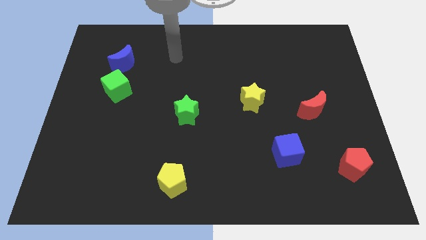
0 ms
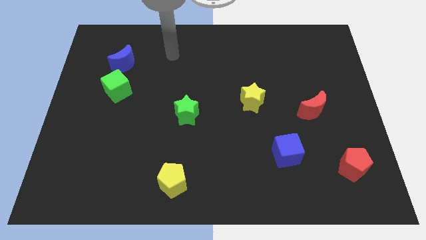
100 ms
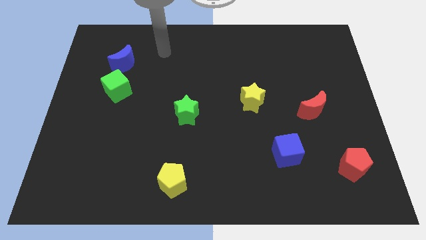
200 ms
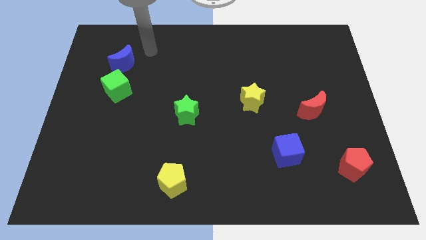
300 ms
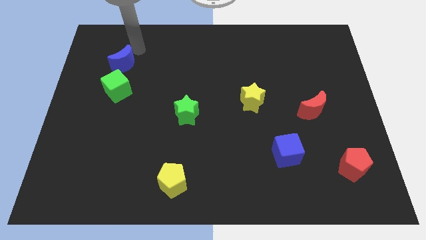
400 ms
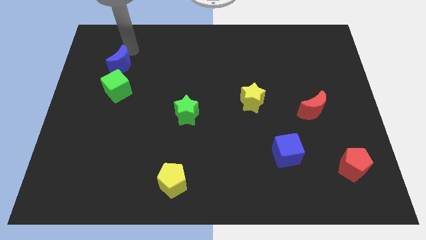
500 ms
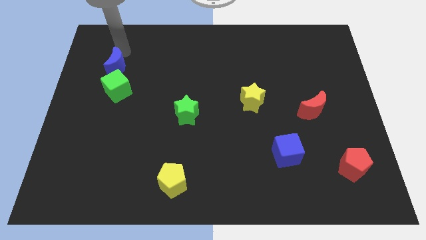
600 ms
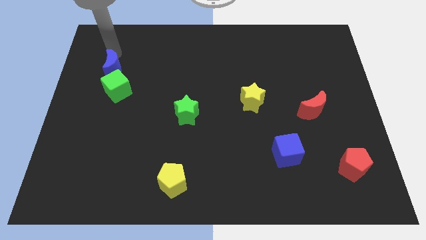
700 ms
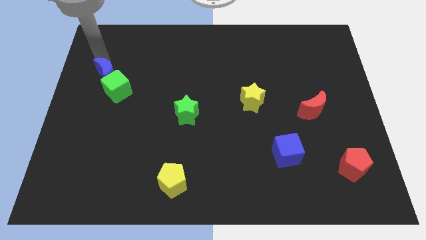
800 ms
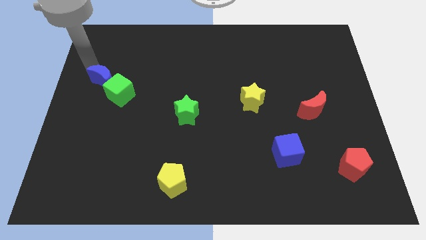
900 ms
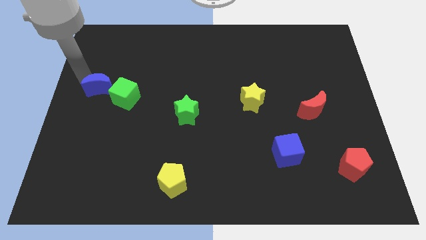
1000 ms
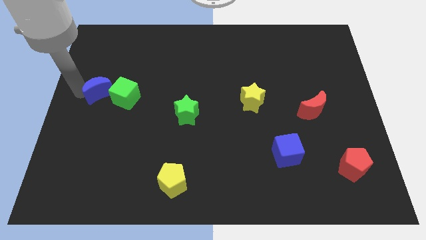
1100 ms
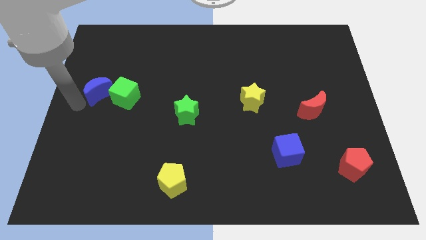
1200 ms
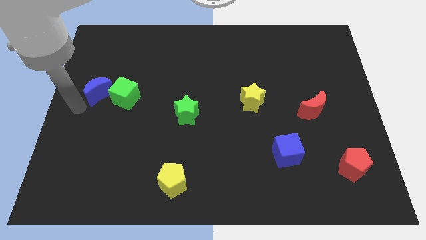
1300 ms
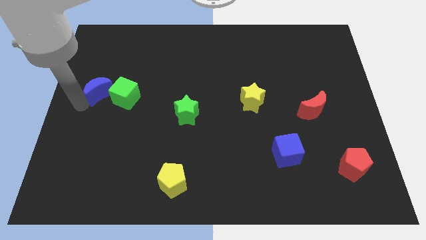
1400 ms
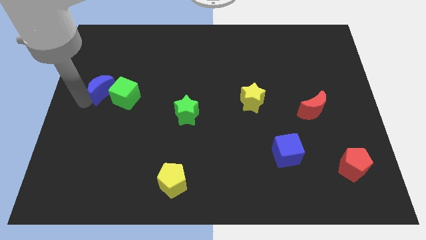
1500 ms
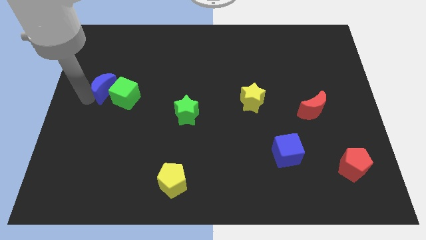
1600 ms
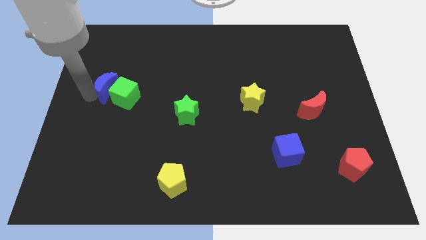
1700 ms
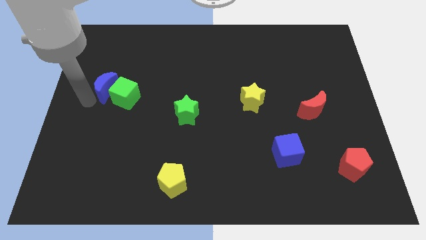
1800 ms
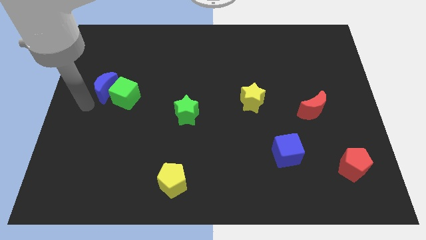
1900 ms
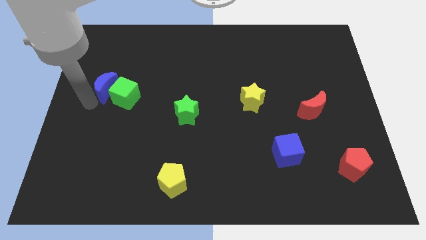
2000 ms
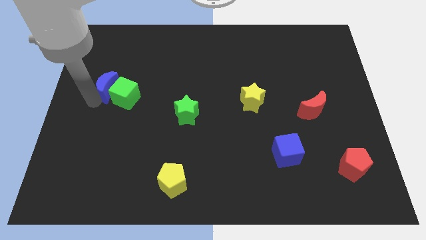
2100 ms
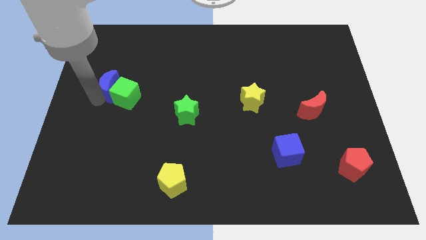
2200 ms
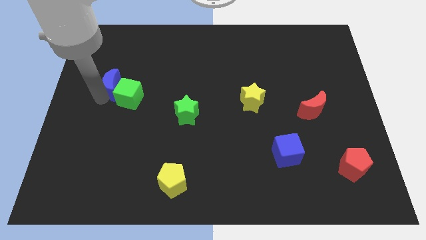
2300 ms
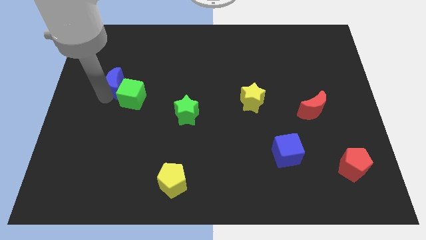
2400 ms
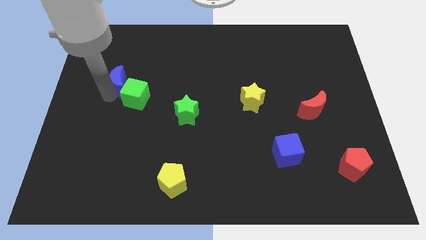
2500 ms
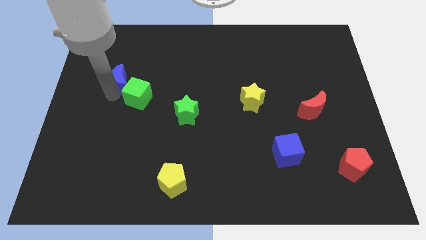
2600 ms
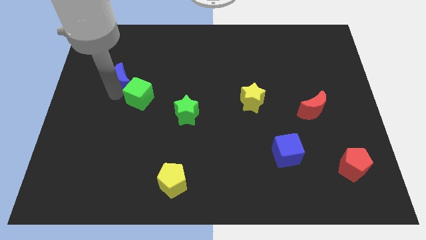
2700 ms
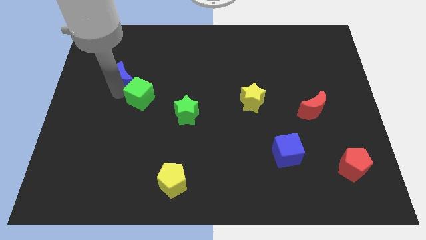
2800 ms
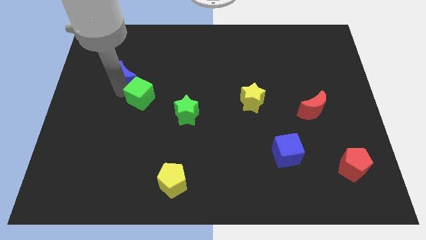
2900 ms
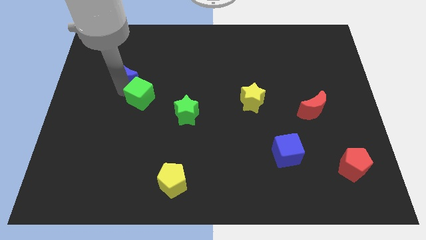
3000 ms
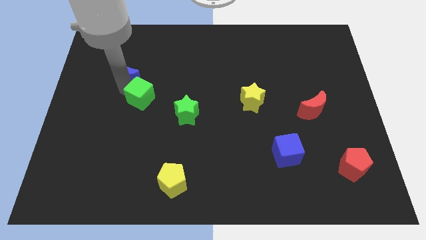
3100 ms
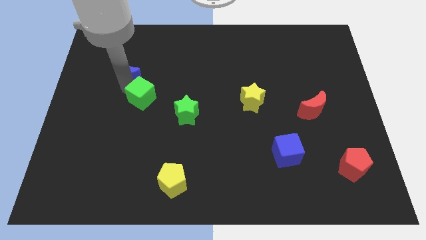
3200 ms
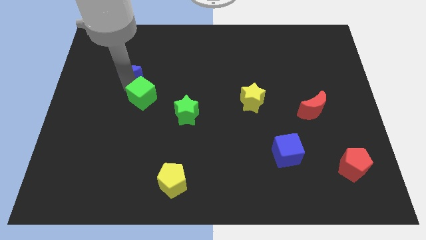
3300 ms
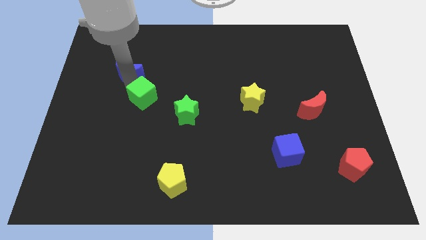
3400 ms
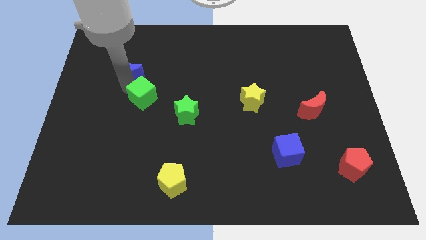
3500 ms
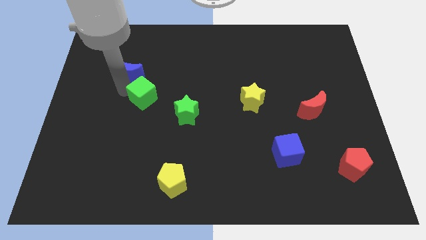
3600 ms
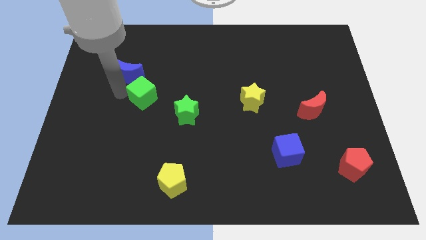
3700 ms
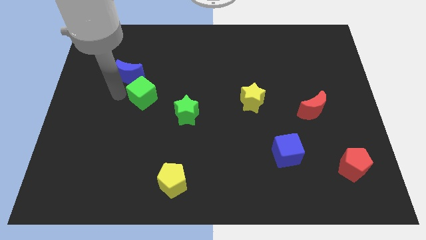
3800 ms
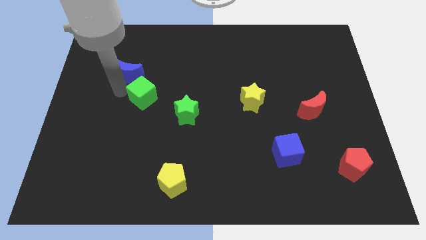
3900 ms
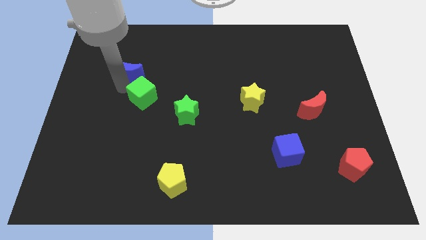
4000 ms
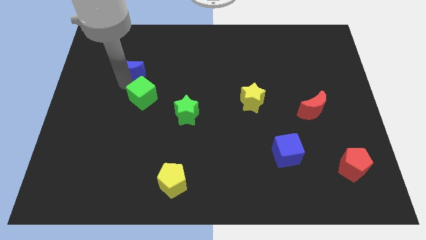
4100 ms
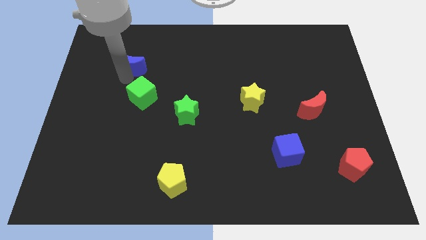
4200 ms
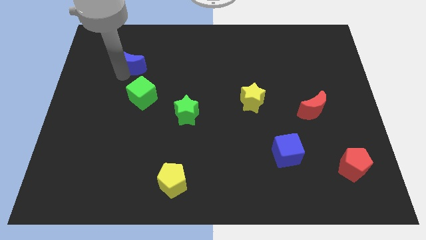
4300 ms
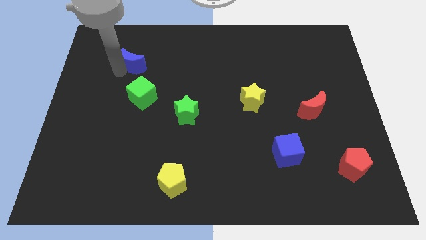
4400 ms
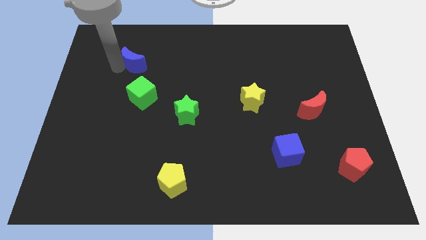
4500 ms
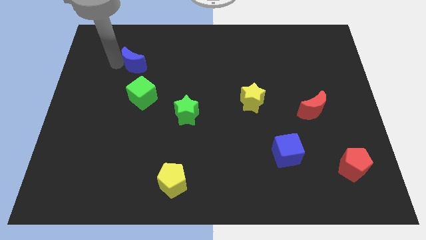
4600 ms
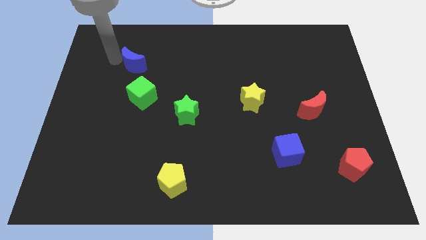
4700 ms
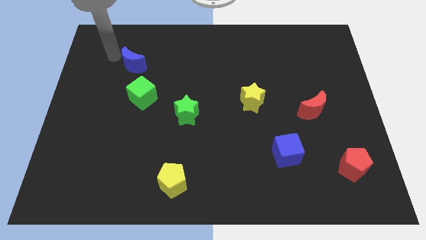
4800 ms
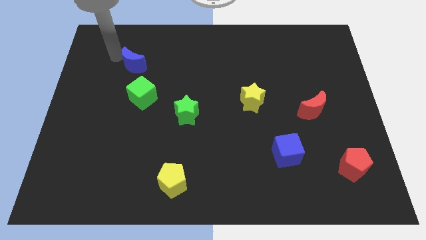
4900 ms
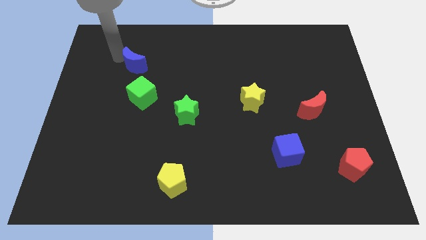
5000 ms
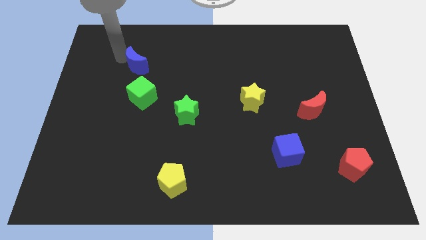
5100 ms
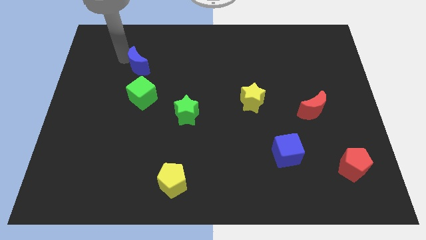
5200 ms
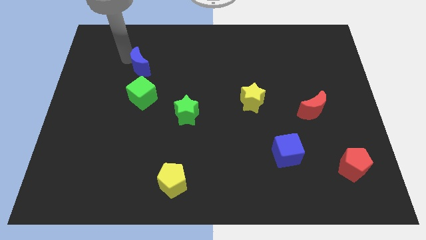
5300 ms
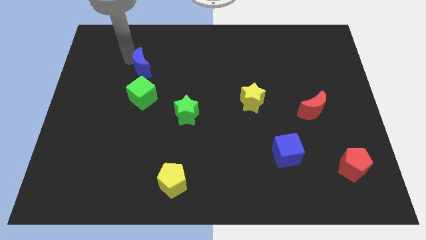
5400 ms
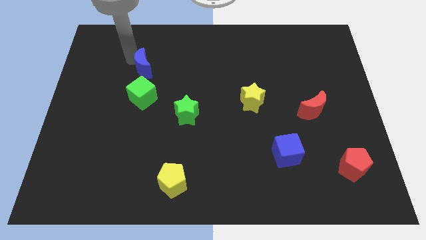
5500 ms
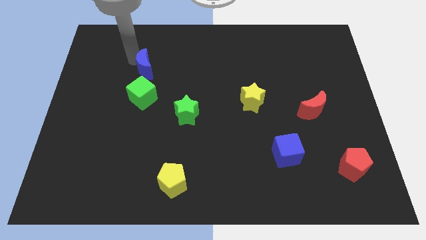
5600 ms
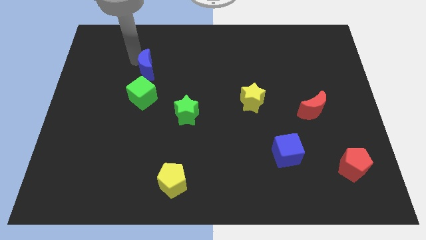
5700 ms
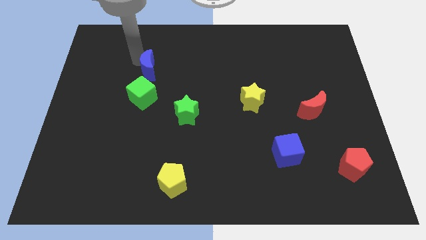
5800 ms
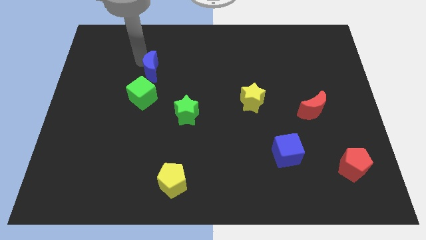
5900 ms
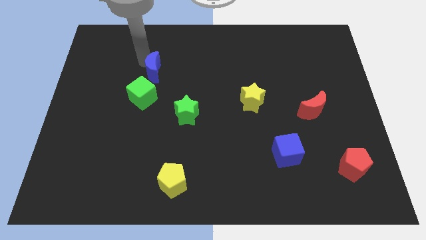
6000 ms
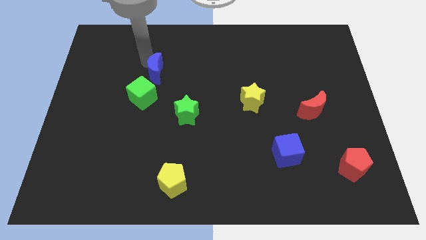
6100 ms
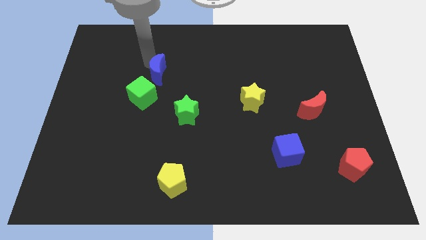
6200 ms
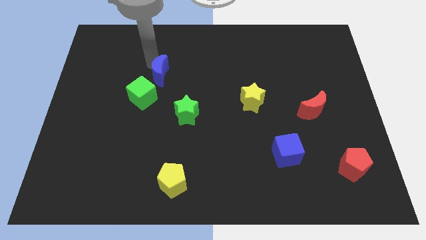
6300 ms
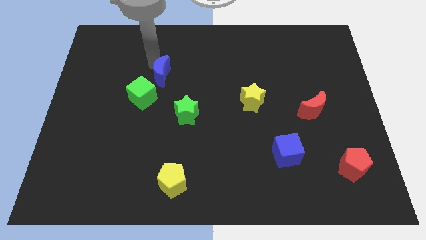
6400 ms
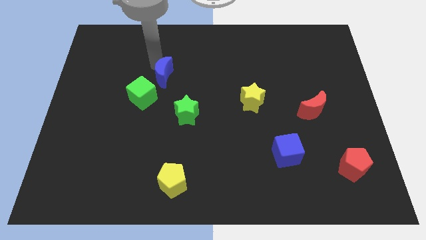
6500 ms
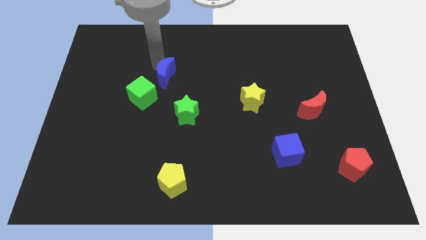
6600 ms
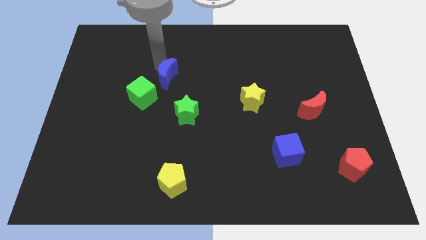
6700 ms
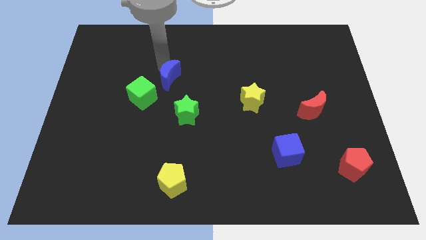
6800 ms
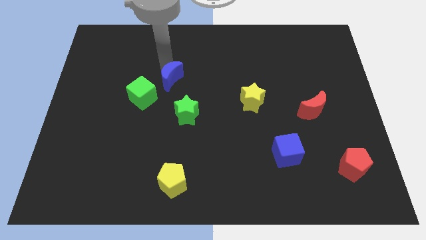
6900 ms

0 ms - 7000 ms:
slide the blue moon to the center of the board
